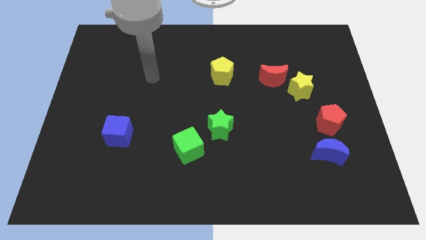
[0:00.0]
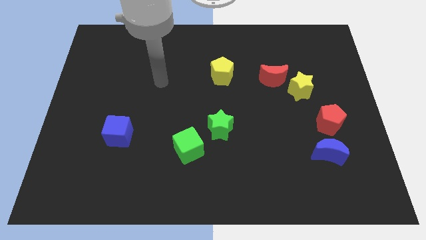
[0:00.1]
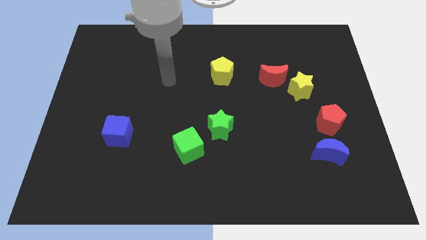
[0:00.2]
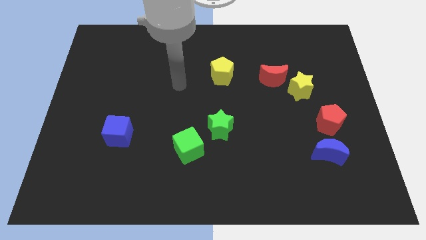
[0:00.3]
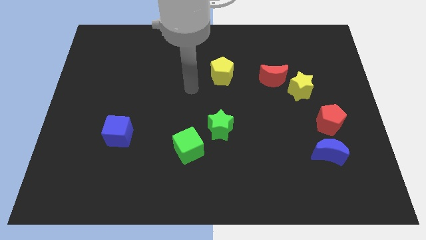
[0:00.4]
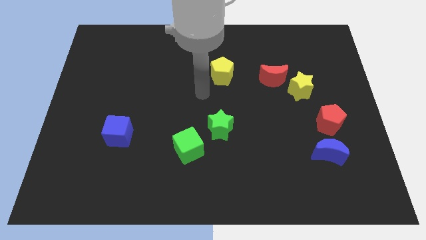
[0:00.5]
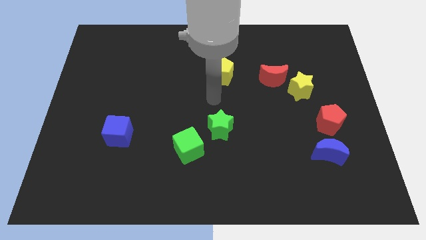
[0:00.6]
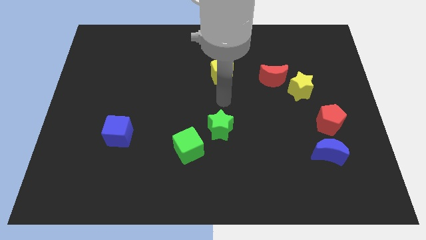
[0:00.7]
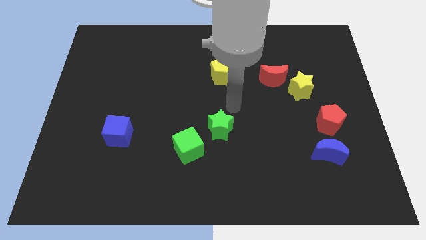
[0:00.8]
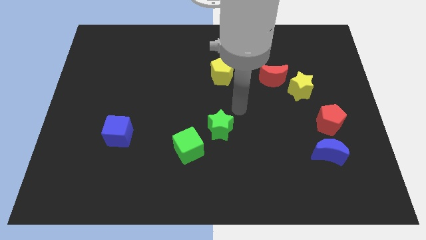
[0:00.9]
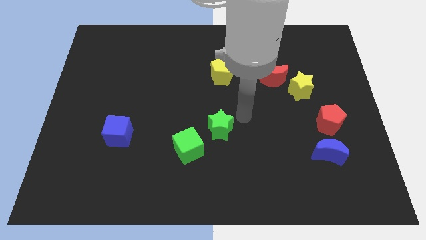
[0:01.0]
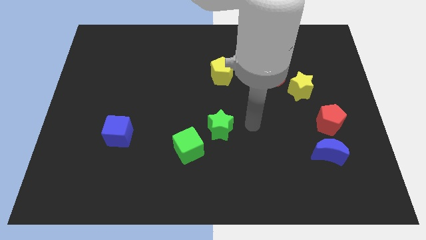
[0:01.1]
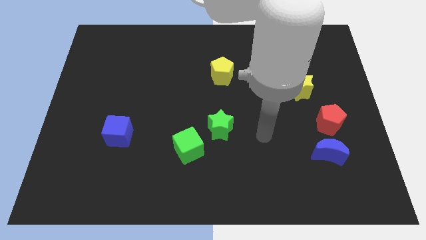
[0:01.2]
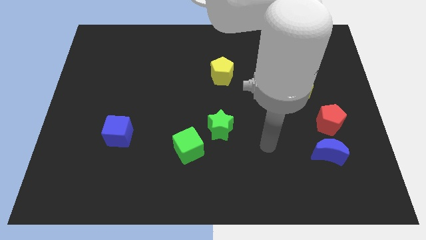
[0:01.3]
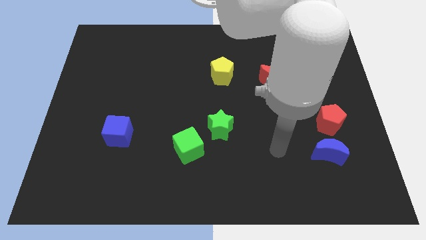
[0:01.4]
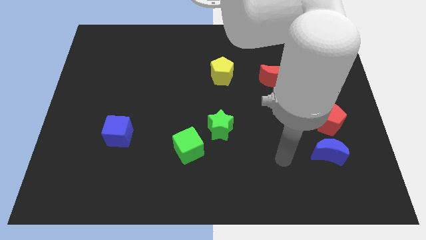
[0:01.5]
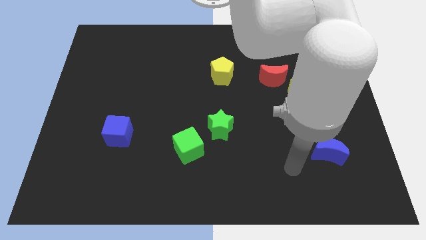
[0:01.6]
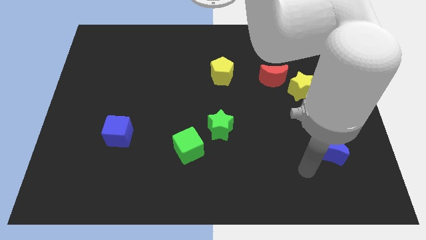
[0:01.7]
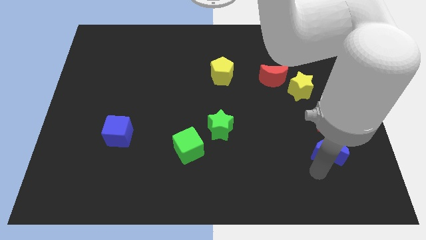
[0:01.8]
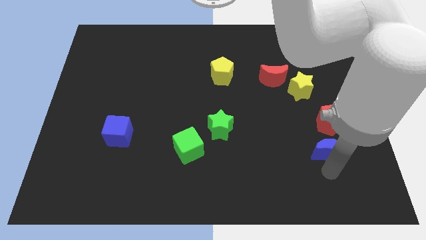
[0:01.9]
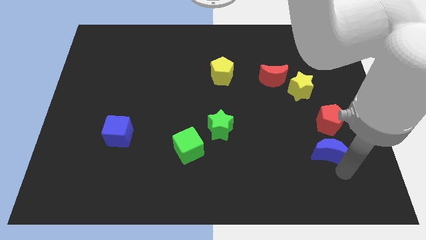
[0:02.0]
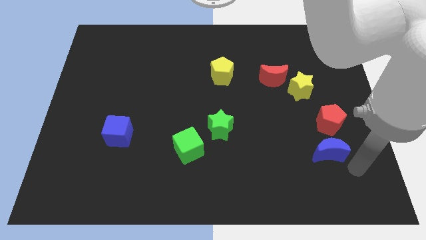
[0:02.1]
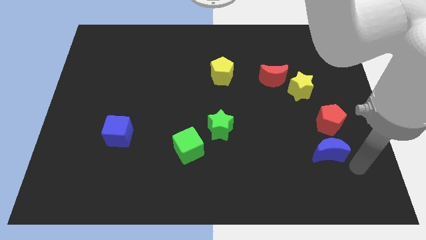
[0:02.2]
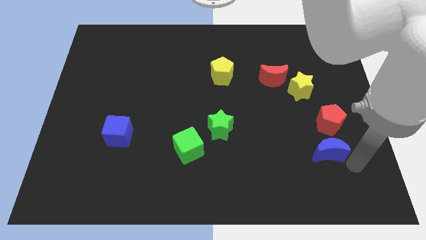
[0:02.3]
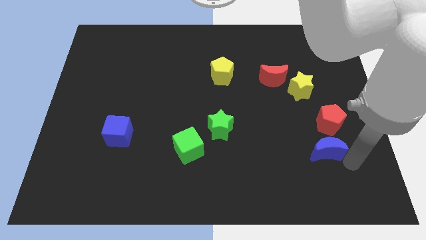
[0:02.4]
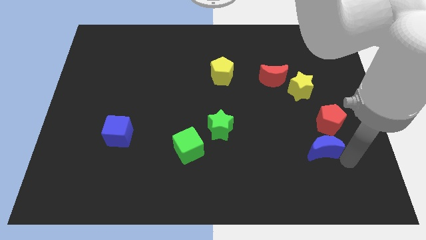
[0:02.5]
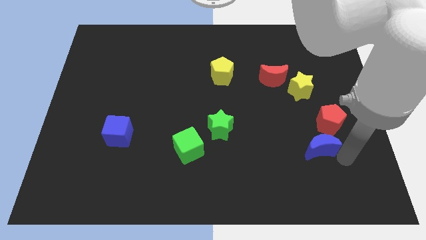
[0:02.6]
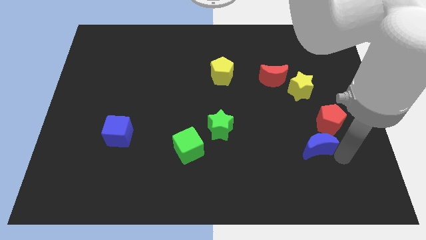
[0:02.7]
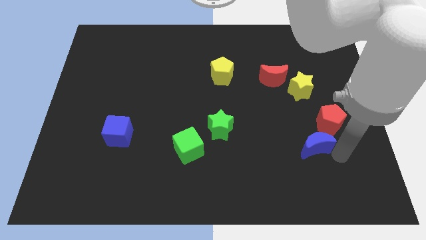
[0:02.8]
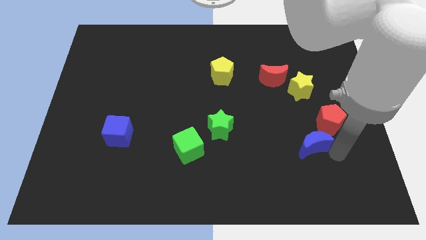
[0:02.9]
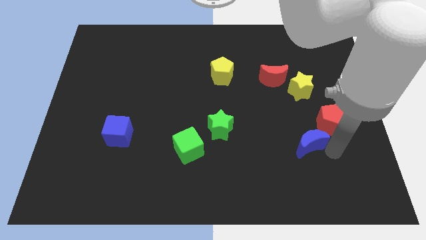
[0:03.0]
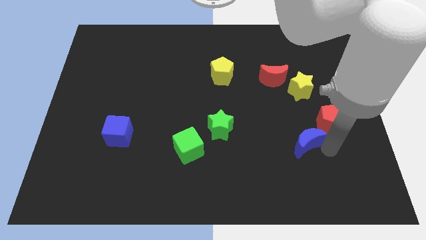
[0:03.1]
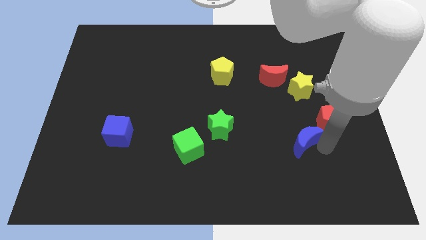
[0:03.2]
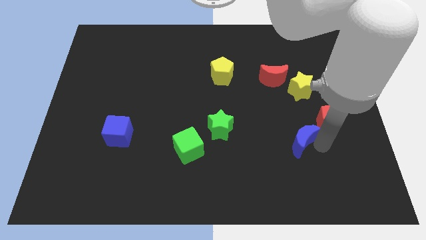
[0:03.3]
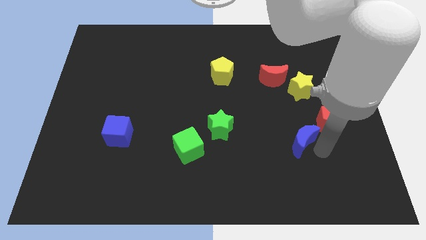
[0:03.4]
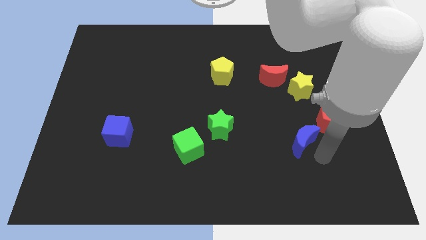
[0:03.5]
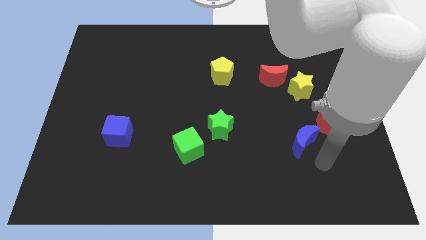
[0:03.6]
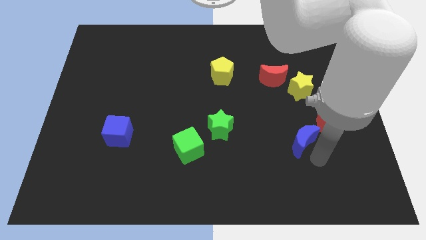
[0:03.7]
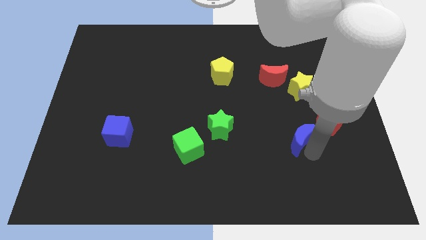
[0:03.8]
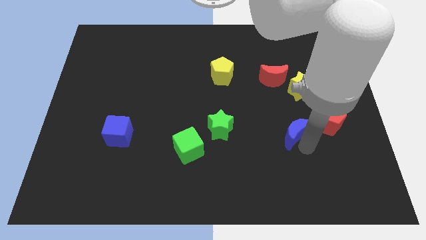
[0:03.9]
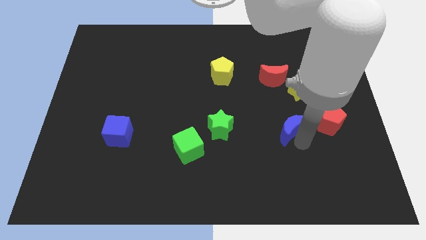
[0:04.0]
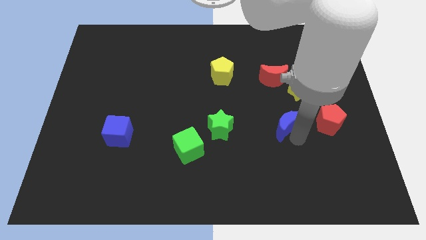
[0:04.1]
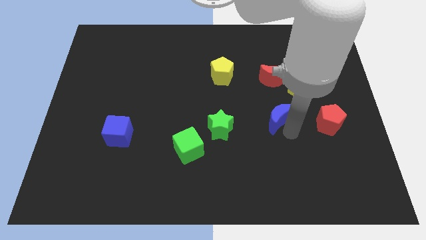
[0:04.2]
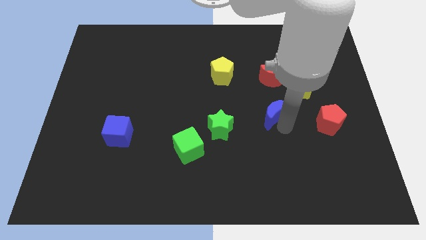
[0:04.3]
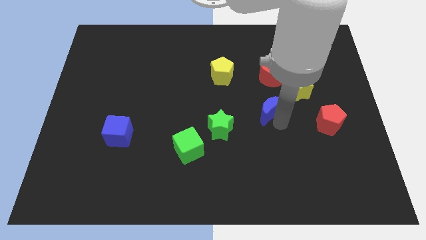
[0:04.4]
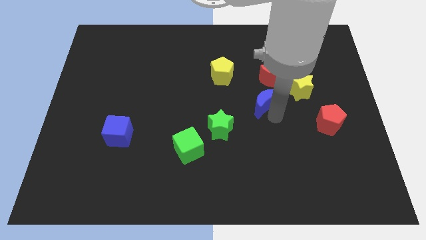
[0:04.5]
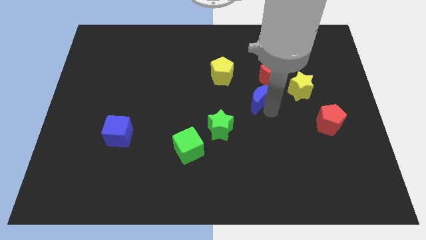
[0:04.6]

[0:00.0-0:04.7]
push the blue moon to the bottom right side of the yellow pentagon

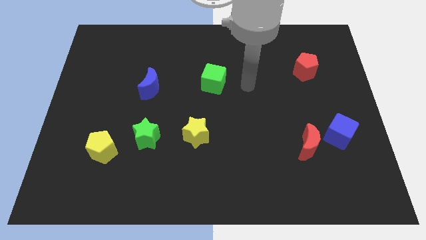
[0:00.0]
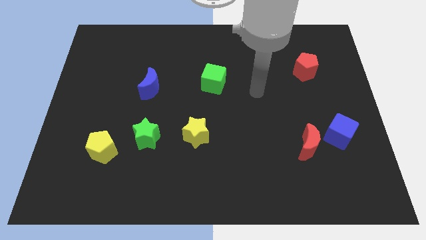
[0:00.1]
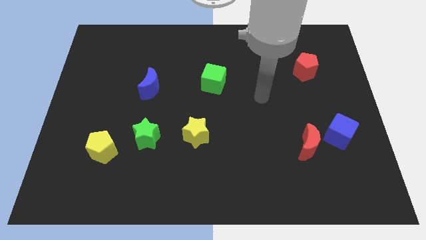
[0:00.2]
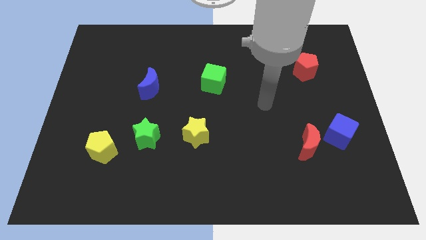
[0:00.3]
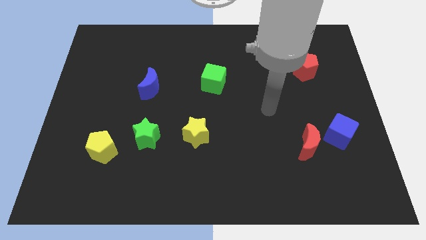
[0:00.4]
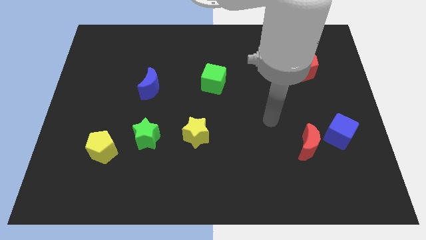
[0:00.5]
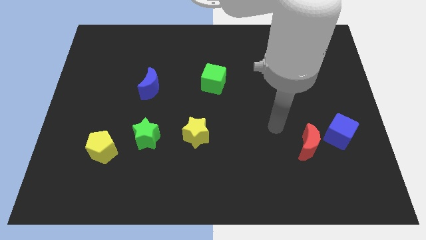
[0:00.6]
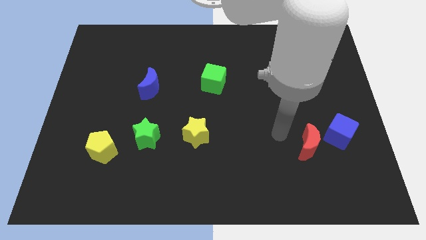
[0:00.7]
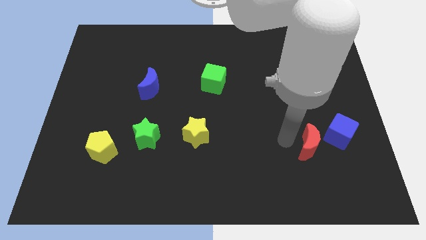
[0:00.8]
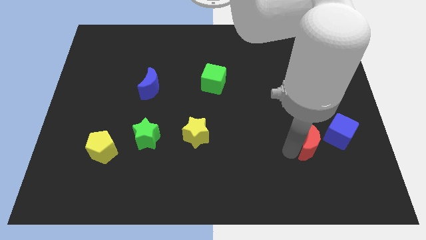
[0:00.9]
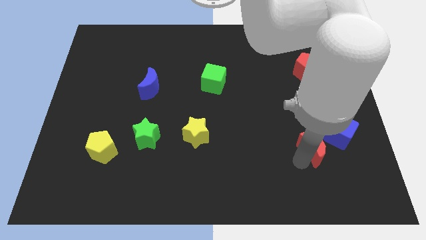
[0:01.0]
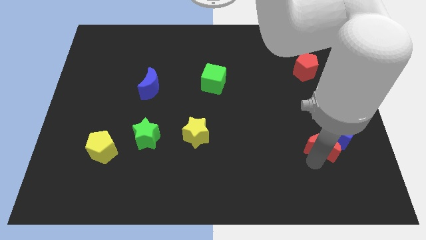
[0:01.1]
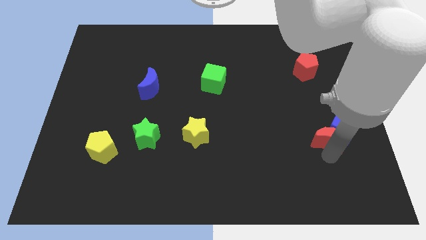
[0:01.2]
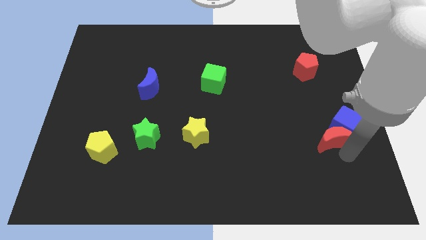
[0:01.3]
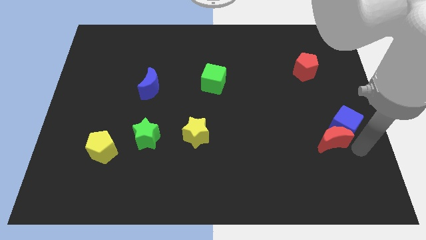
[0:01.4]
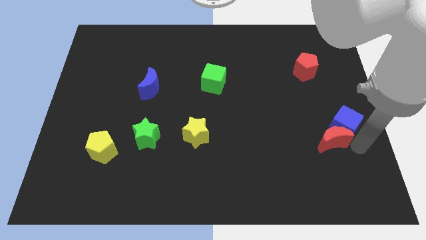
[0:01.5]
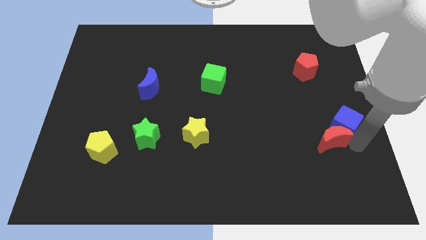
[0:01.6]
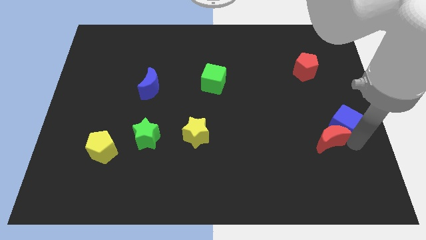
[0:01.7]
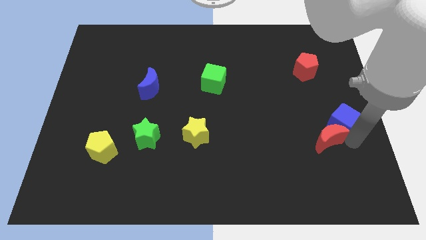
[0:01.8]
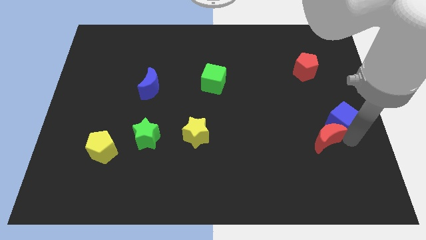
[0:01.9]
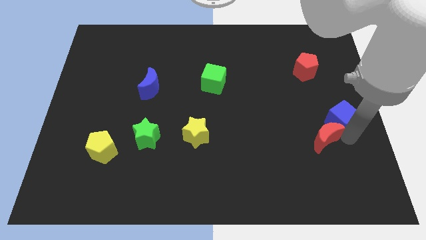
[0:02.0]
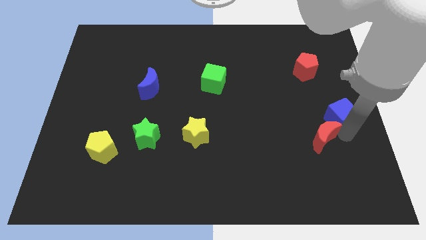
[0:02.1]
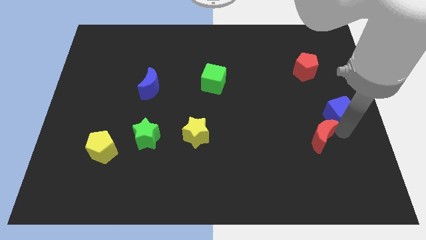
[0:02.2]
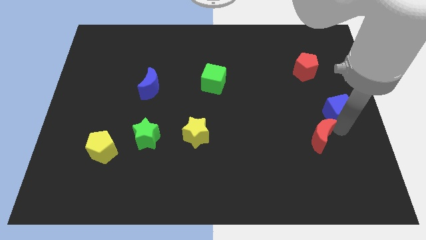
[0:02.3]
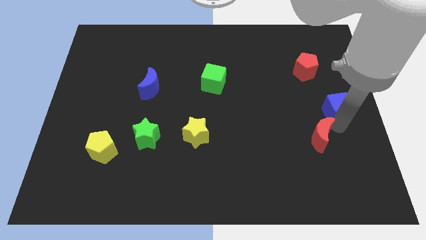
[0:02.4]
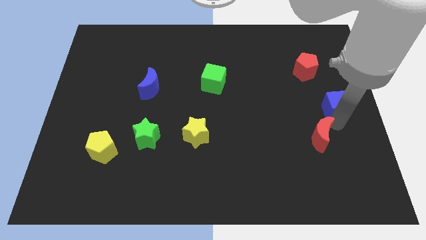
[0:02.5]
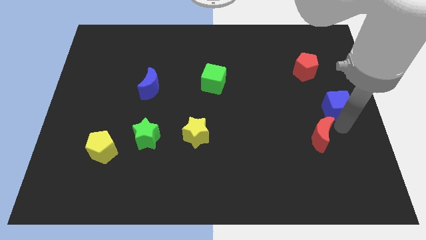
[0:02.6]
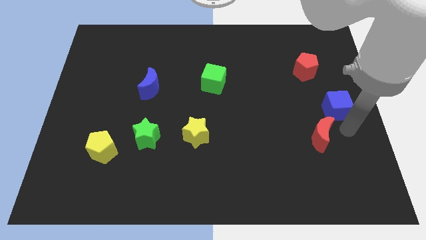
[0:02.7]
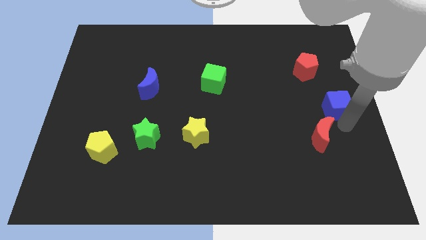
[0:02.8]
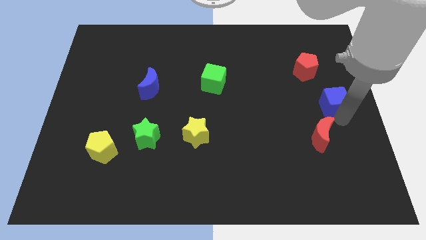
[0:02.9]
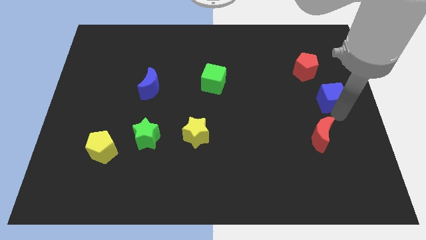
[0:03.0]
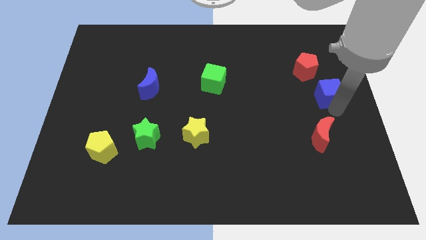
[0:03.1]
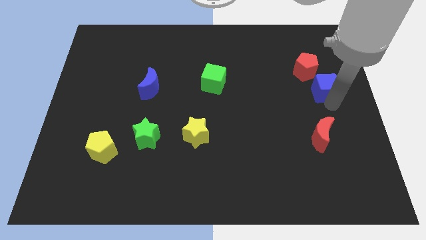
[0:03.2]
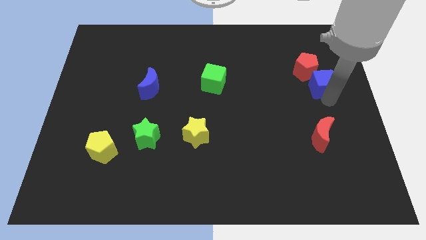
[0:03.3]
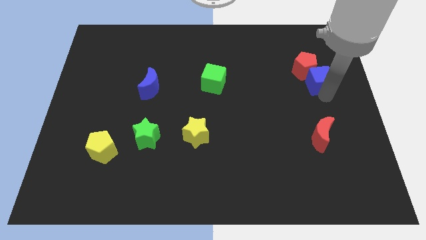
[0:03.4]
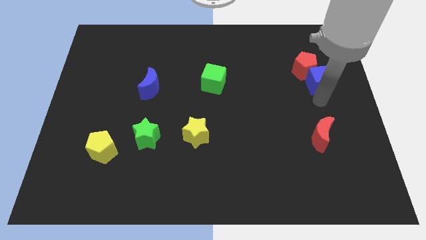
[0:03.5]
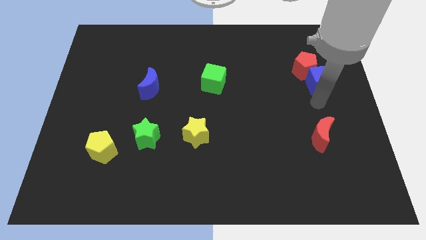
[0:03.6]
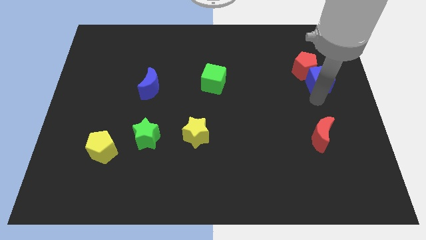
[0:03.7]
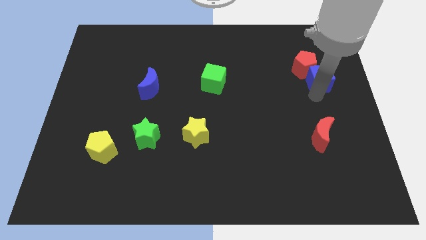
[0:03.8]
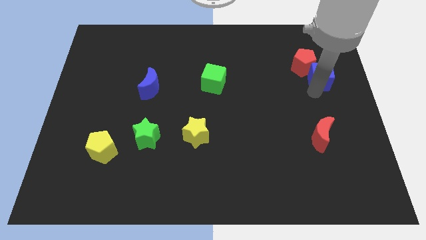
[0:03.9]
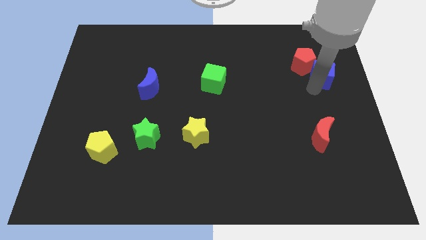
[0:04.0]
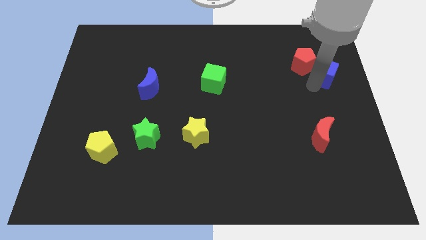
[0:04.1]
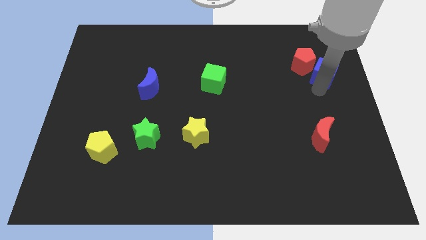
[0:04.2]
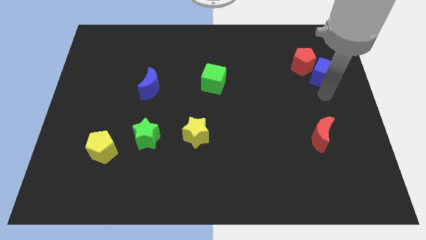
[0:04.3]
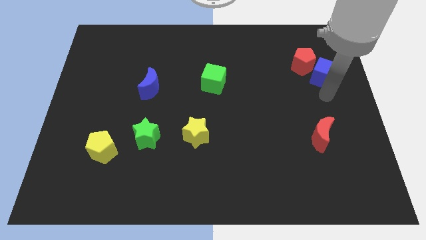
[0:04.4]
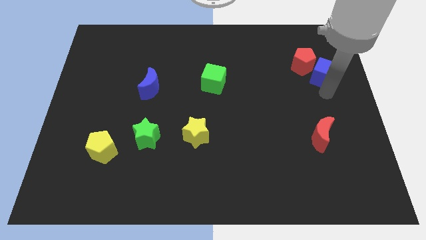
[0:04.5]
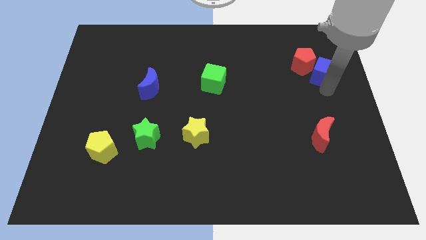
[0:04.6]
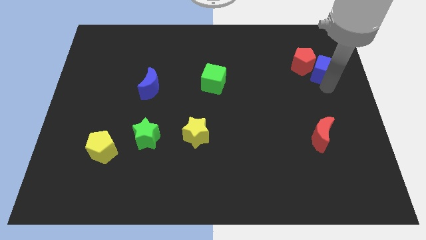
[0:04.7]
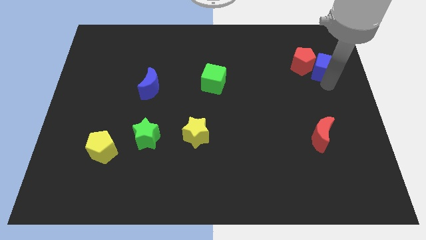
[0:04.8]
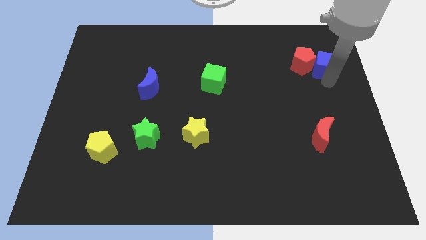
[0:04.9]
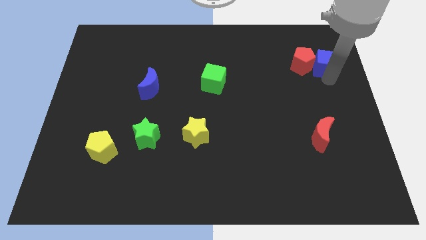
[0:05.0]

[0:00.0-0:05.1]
push the blue cube to the top right of the red pentagon
